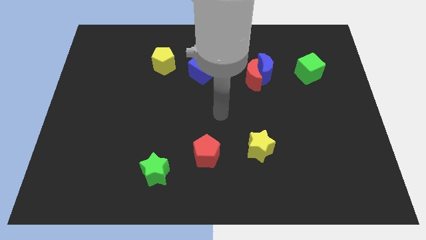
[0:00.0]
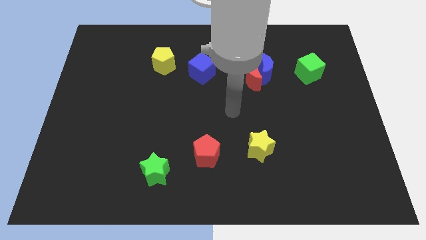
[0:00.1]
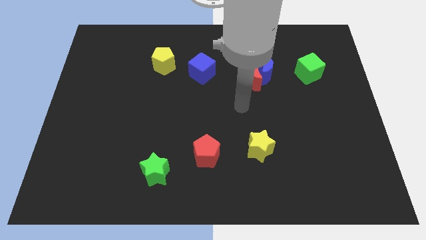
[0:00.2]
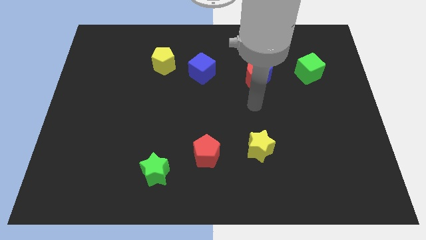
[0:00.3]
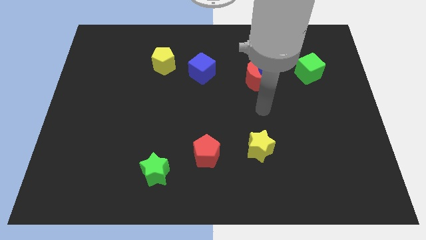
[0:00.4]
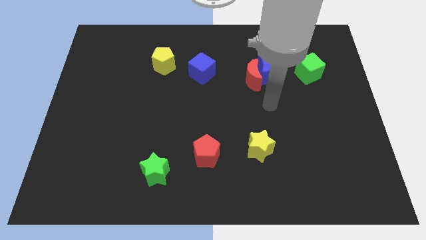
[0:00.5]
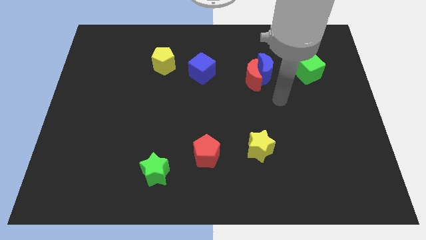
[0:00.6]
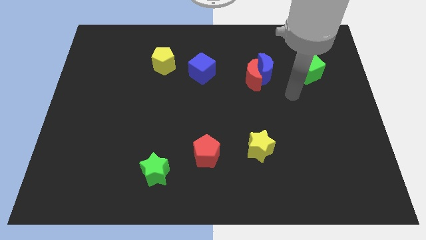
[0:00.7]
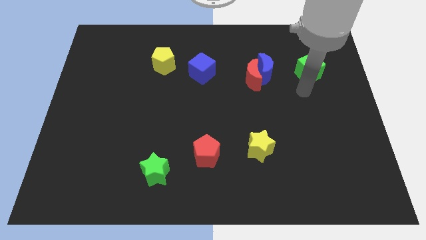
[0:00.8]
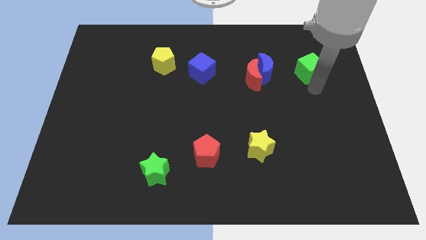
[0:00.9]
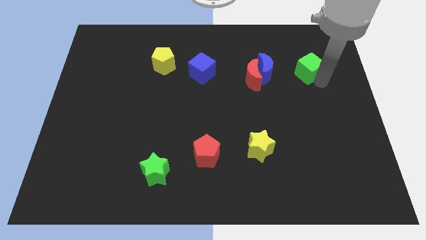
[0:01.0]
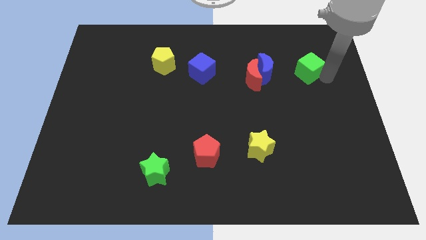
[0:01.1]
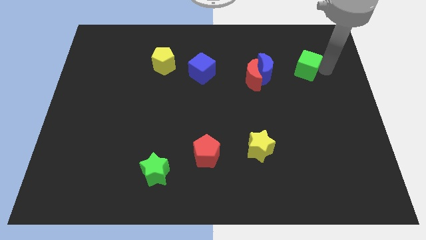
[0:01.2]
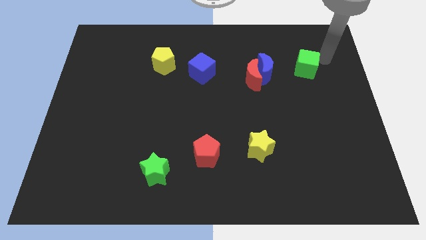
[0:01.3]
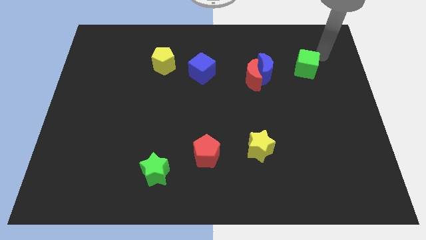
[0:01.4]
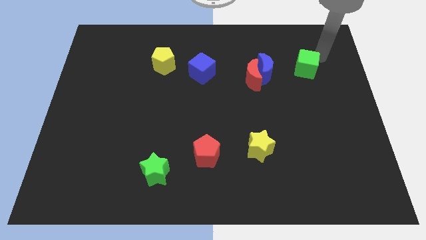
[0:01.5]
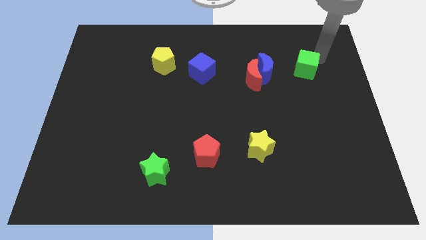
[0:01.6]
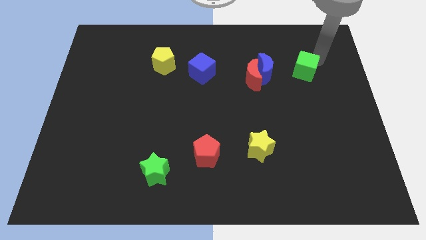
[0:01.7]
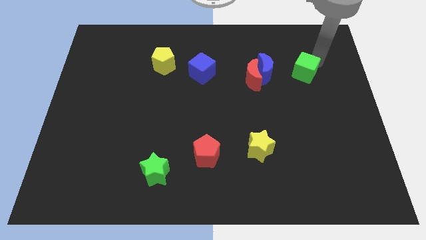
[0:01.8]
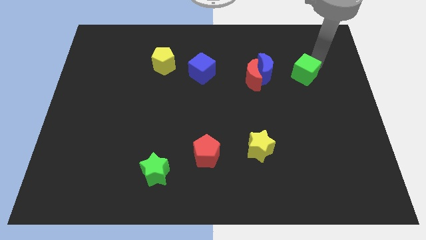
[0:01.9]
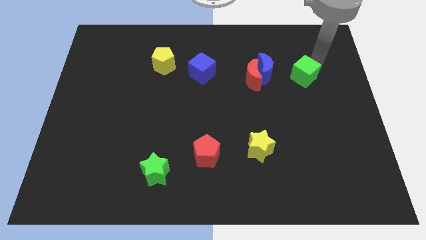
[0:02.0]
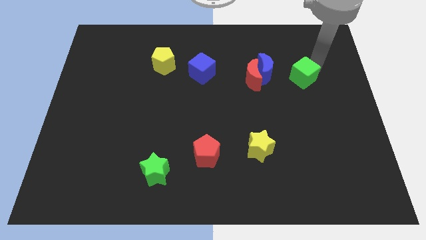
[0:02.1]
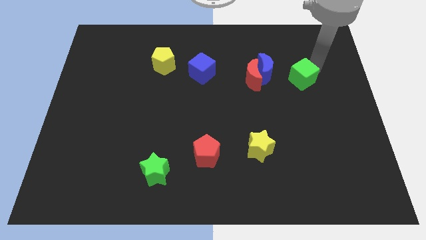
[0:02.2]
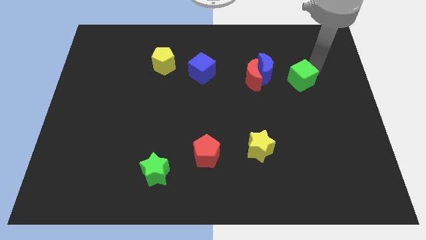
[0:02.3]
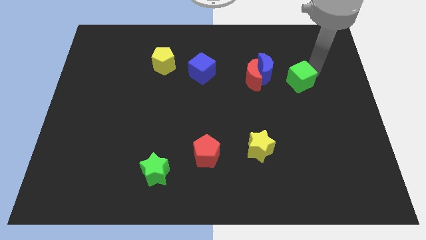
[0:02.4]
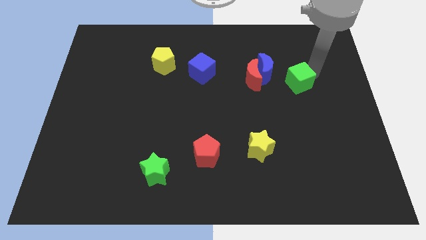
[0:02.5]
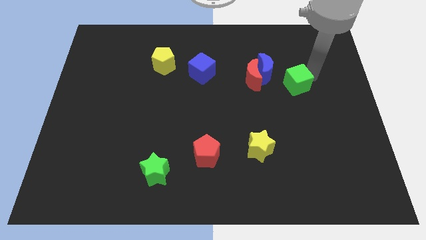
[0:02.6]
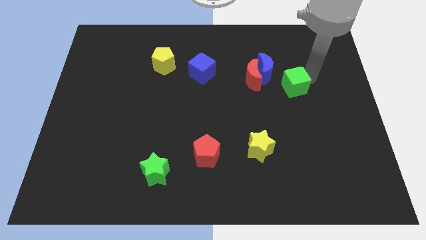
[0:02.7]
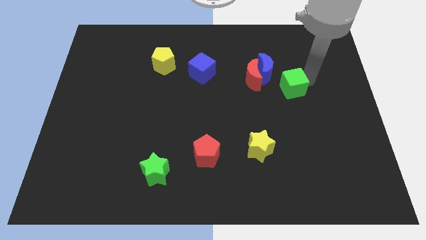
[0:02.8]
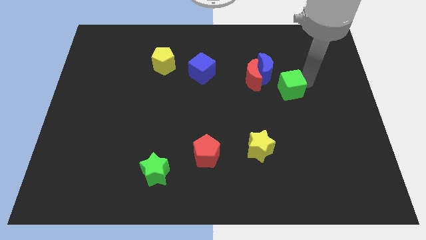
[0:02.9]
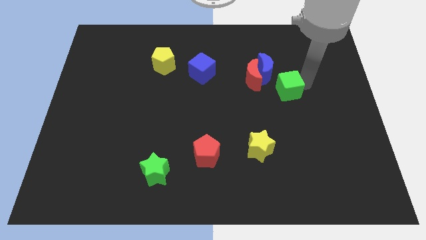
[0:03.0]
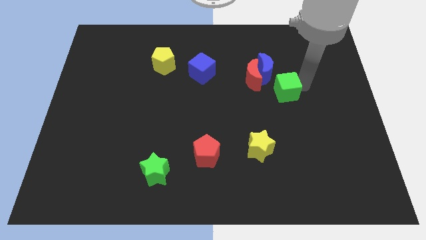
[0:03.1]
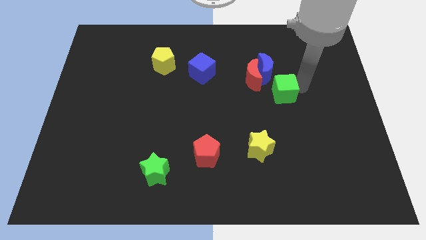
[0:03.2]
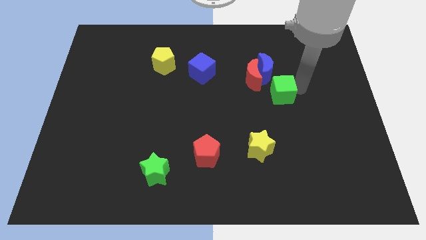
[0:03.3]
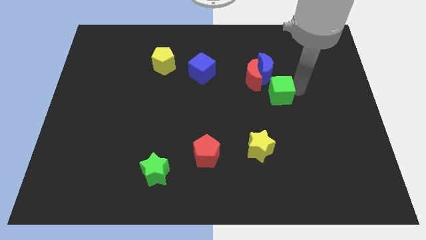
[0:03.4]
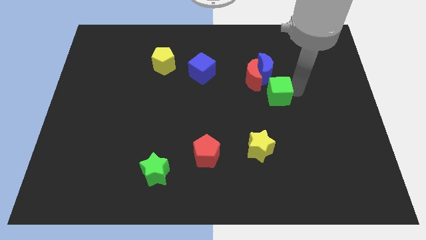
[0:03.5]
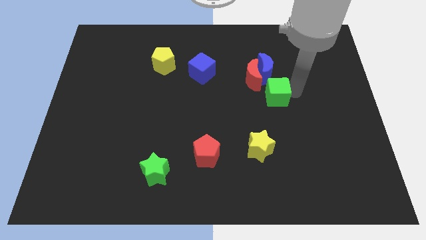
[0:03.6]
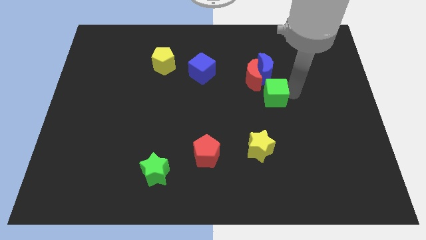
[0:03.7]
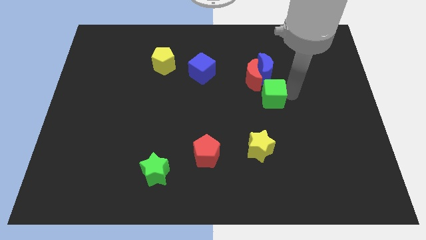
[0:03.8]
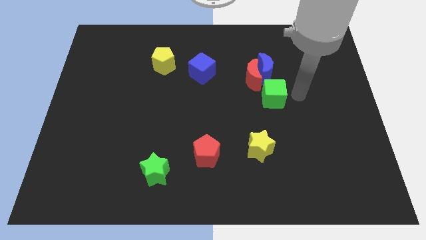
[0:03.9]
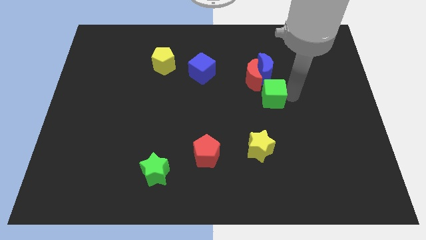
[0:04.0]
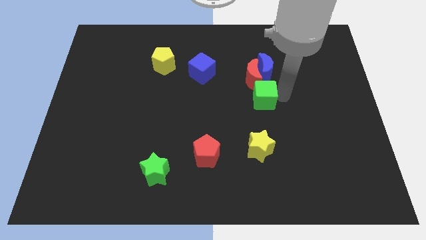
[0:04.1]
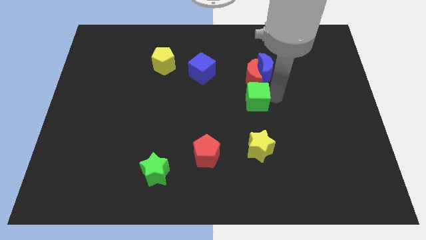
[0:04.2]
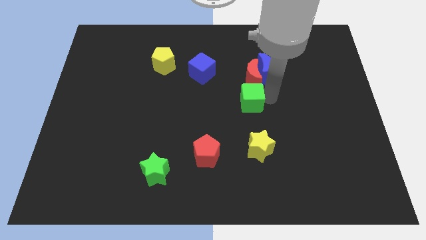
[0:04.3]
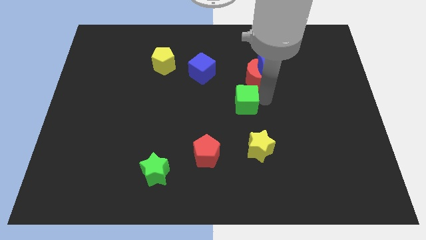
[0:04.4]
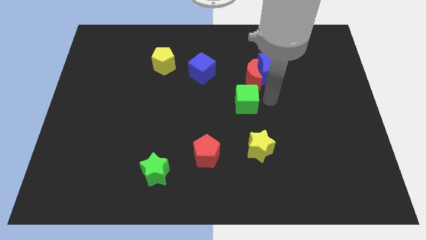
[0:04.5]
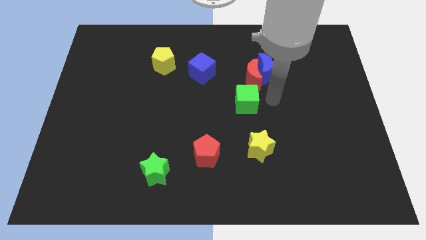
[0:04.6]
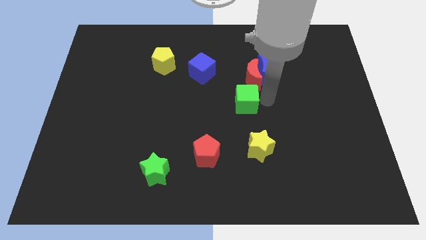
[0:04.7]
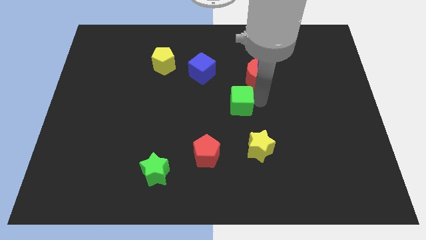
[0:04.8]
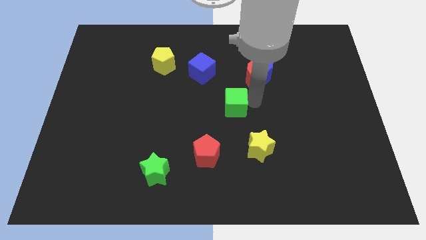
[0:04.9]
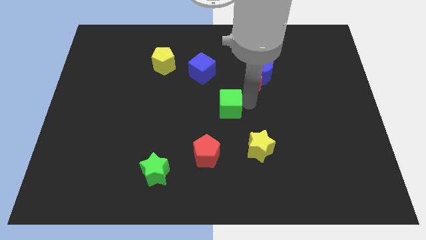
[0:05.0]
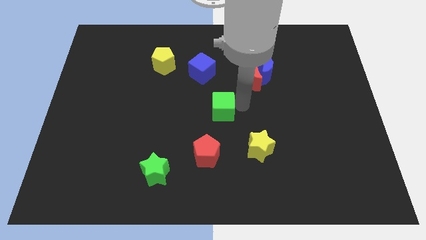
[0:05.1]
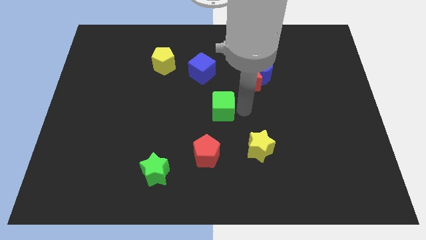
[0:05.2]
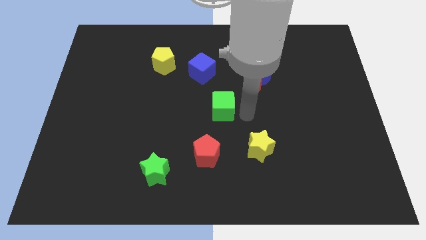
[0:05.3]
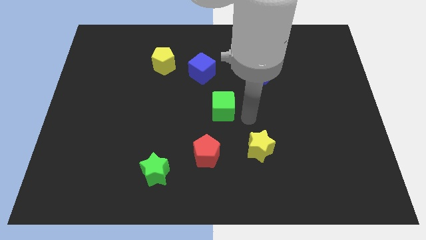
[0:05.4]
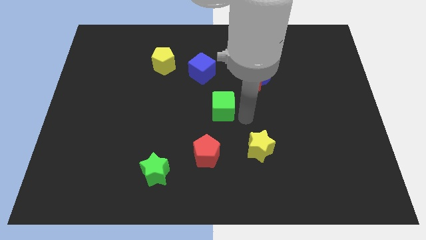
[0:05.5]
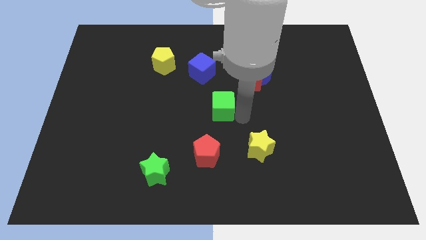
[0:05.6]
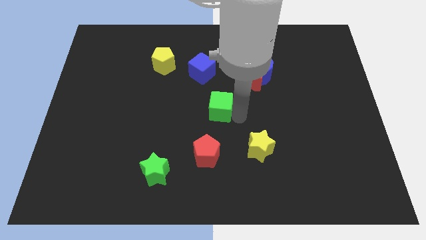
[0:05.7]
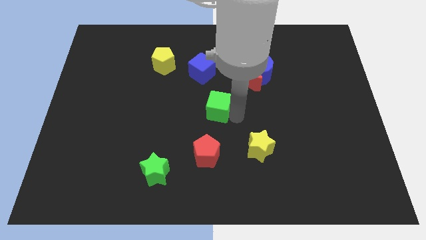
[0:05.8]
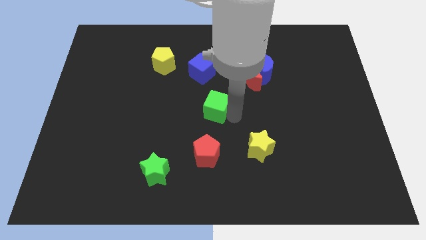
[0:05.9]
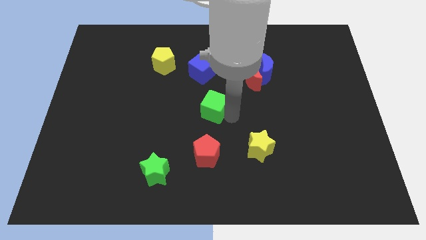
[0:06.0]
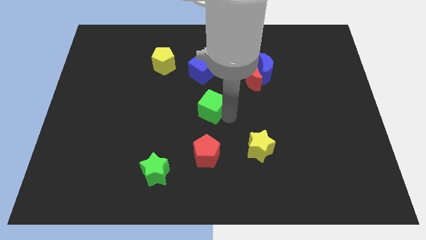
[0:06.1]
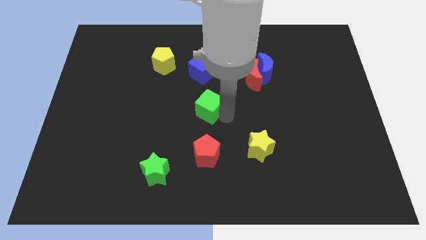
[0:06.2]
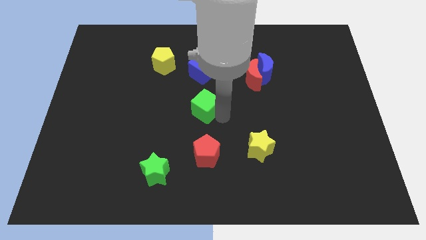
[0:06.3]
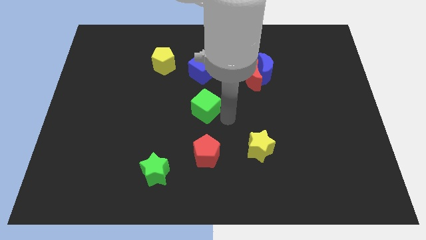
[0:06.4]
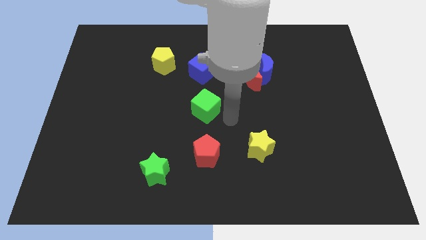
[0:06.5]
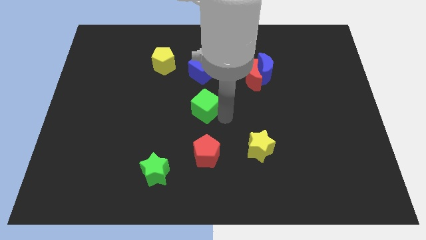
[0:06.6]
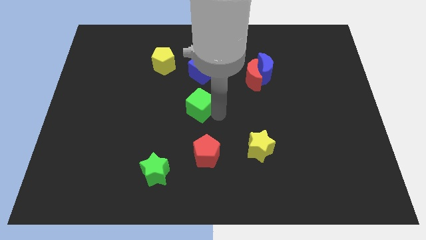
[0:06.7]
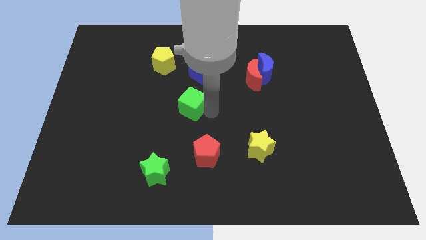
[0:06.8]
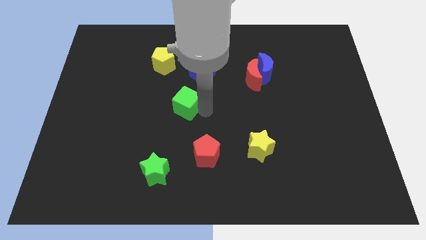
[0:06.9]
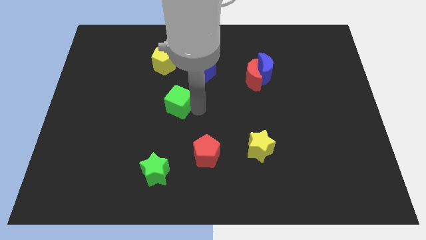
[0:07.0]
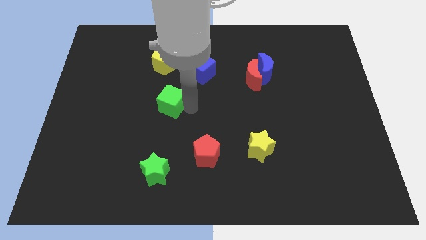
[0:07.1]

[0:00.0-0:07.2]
push the green cube to the bottom side of the yellow pentagon
